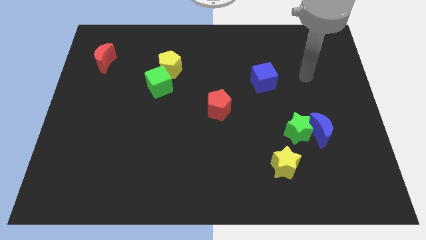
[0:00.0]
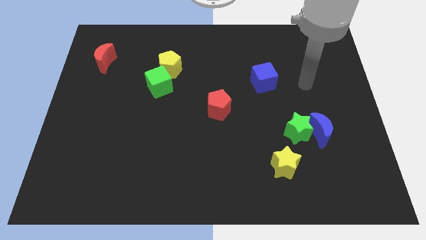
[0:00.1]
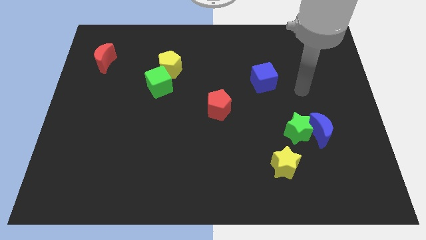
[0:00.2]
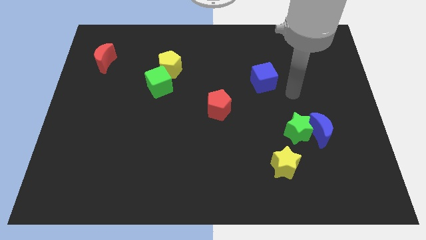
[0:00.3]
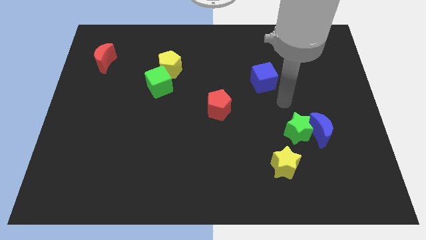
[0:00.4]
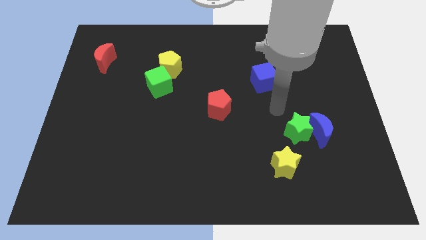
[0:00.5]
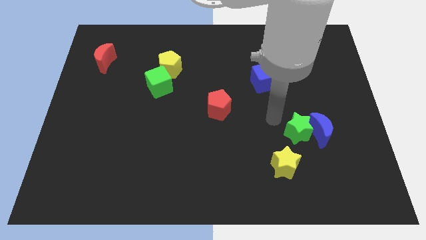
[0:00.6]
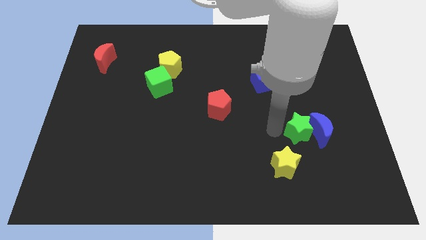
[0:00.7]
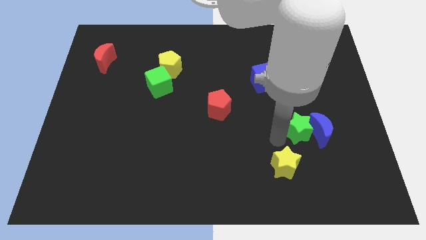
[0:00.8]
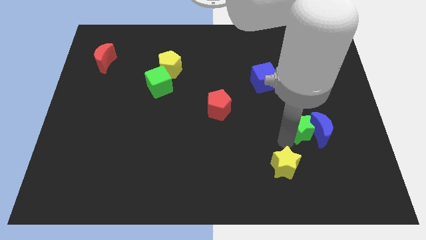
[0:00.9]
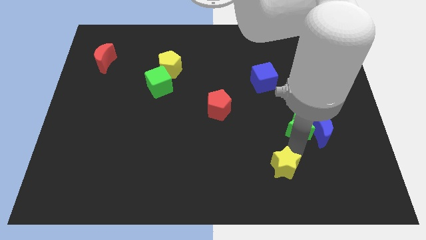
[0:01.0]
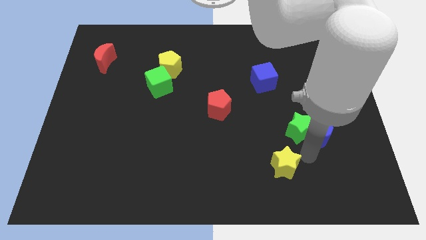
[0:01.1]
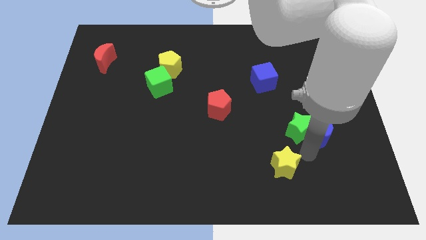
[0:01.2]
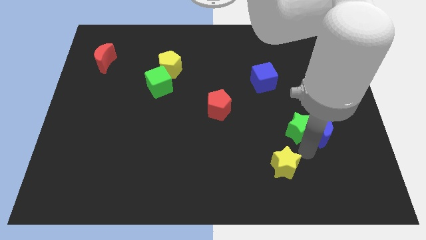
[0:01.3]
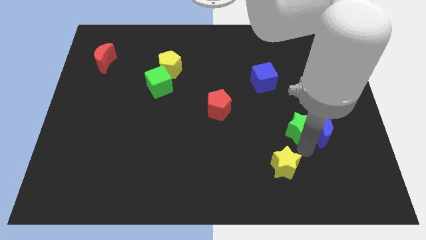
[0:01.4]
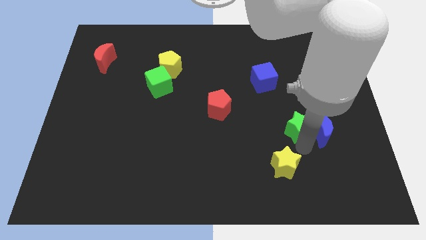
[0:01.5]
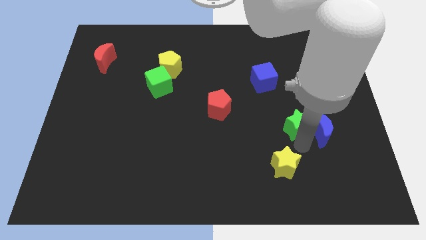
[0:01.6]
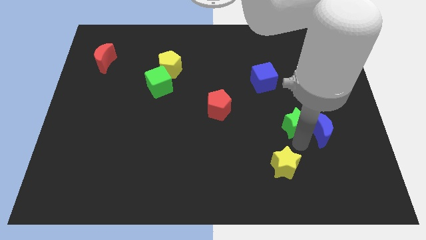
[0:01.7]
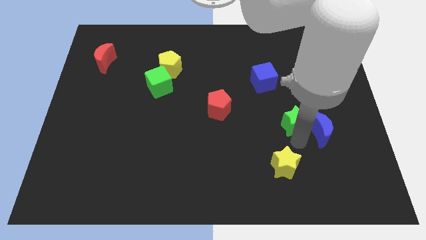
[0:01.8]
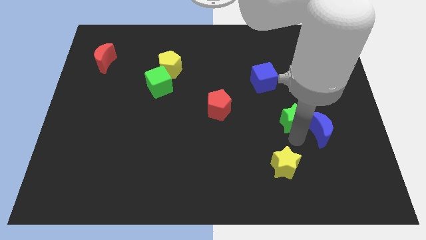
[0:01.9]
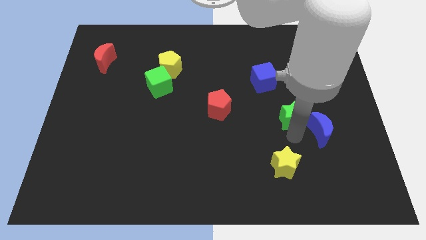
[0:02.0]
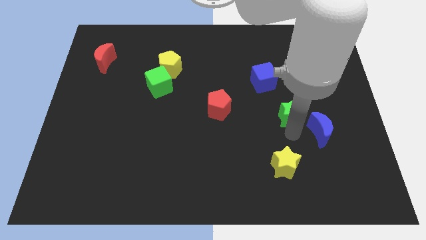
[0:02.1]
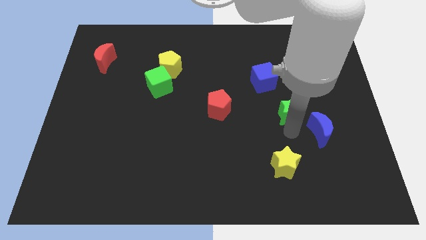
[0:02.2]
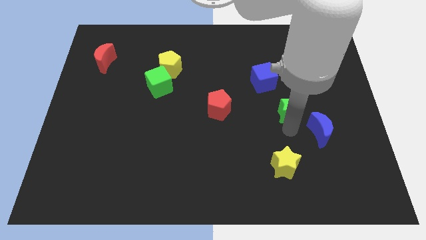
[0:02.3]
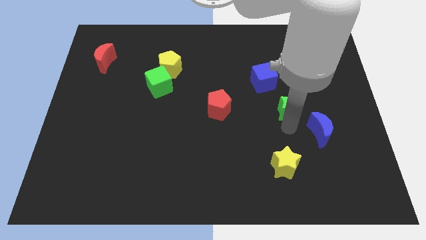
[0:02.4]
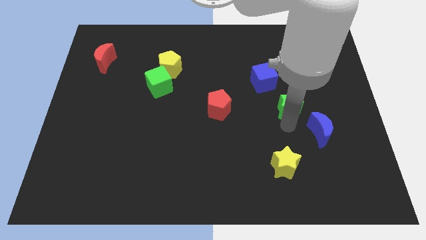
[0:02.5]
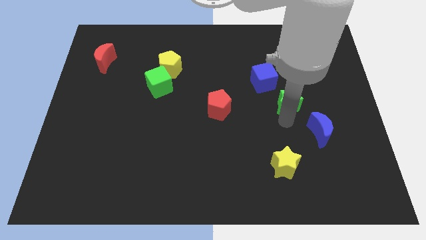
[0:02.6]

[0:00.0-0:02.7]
slide the green star upwards somewhat

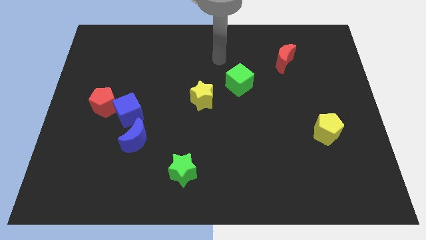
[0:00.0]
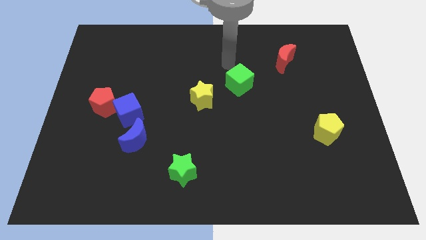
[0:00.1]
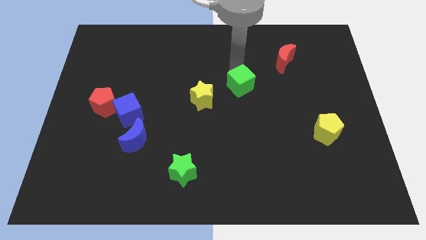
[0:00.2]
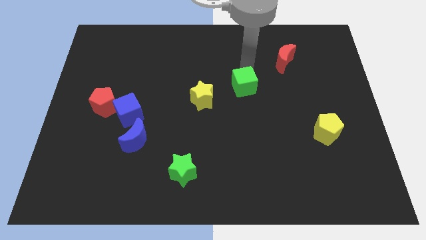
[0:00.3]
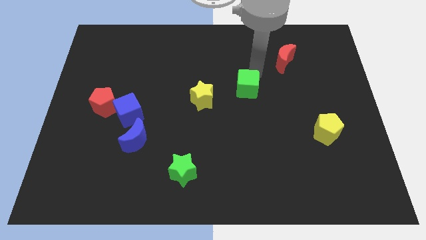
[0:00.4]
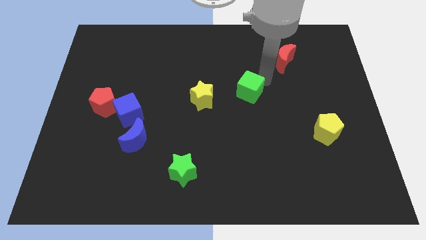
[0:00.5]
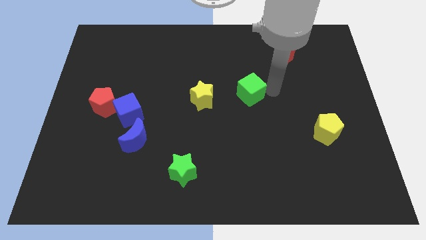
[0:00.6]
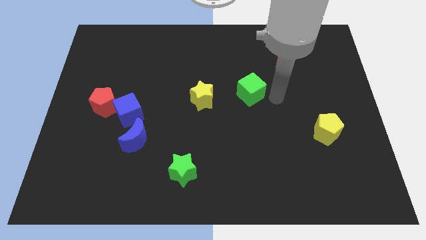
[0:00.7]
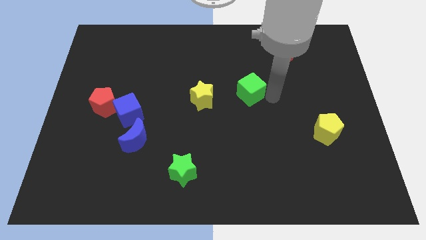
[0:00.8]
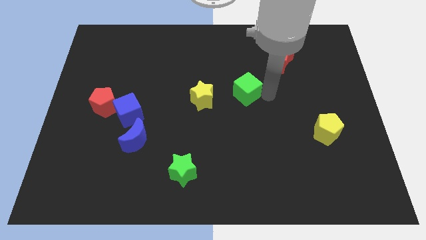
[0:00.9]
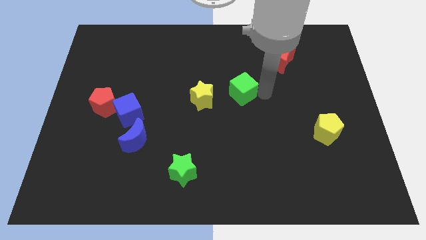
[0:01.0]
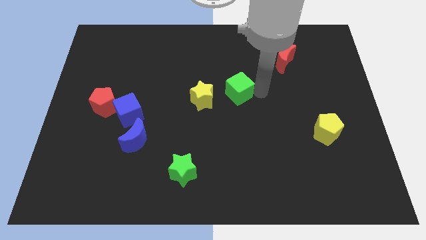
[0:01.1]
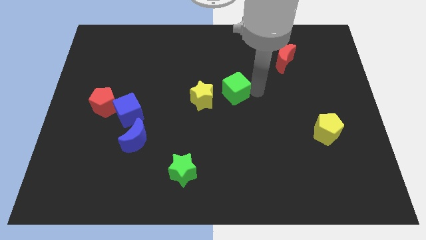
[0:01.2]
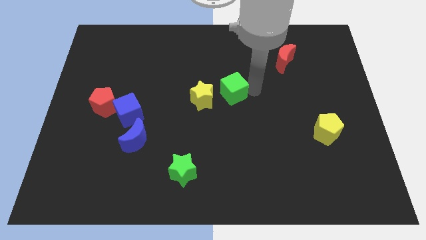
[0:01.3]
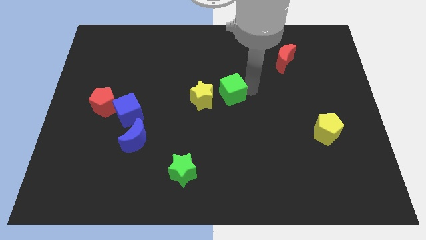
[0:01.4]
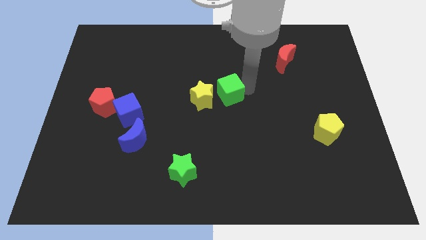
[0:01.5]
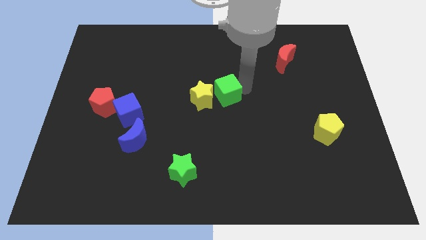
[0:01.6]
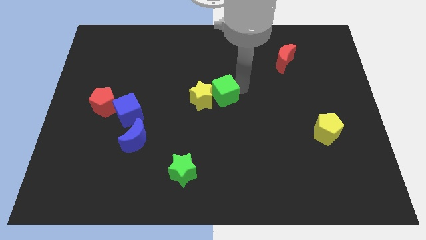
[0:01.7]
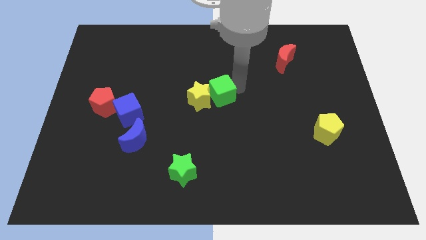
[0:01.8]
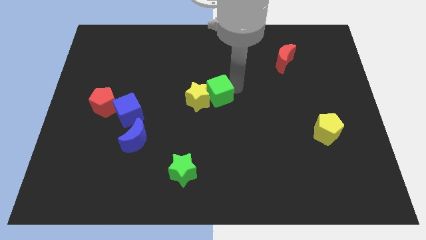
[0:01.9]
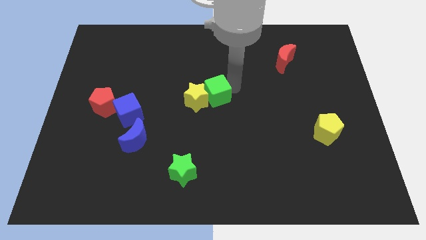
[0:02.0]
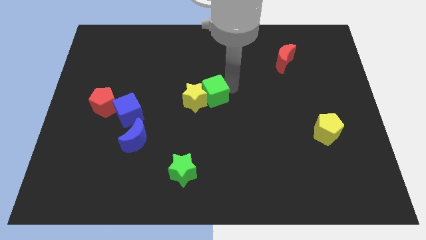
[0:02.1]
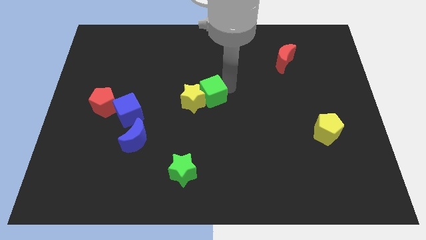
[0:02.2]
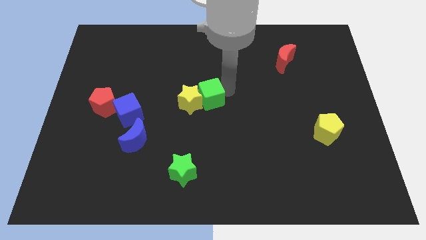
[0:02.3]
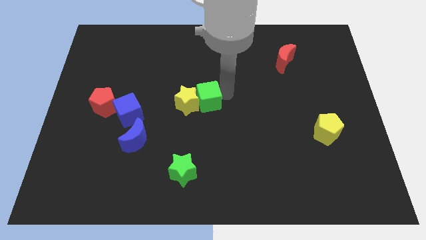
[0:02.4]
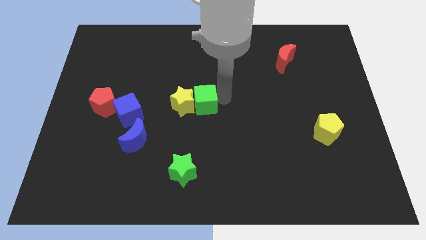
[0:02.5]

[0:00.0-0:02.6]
slide the green cube a bit left

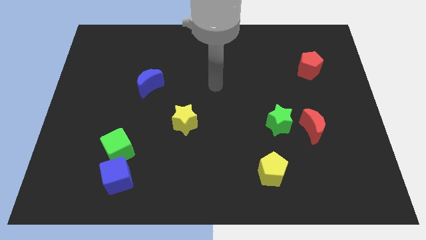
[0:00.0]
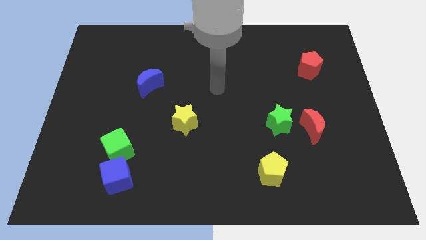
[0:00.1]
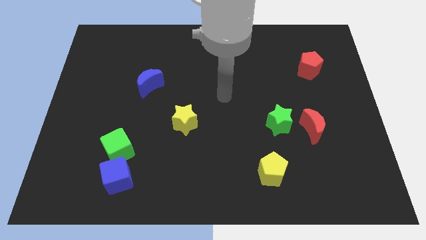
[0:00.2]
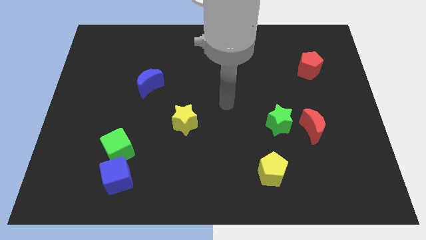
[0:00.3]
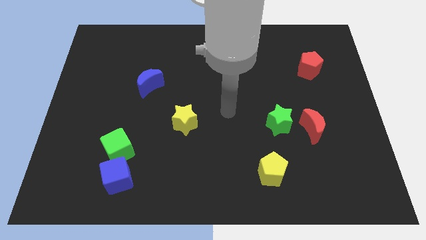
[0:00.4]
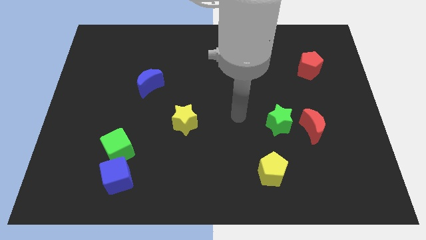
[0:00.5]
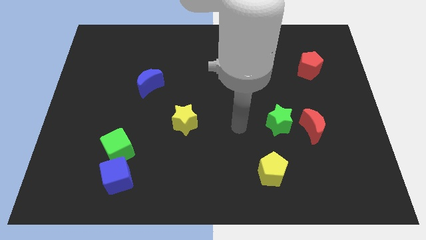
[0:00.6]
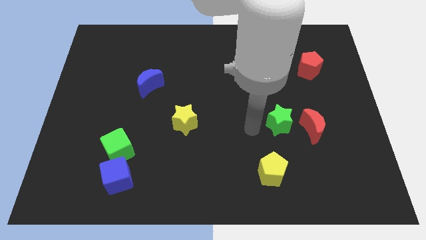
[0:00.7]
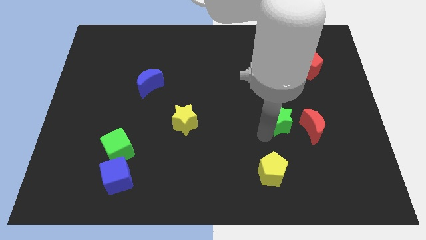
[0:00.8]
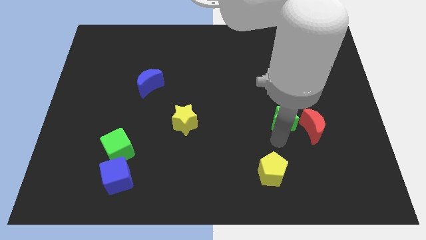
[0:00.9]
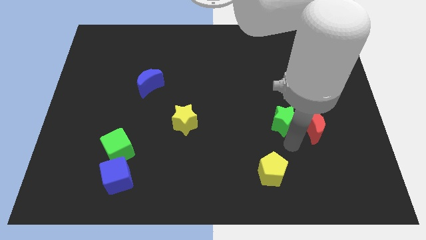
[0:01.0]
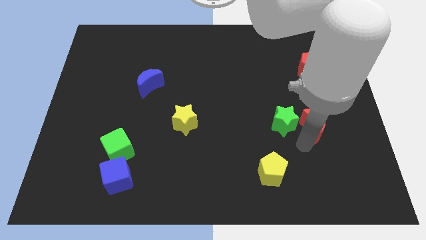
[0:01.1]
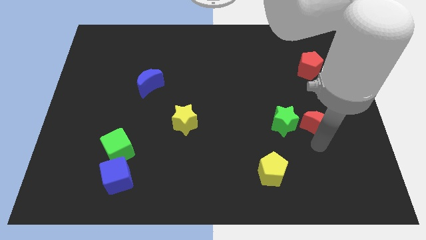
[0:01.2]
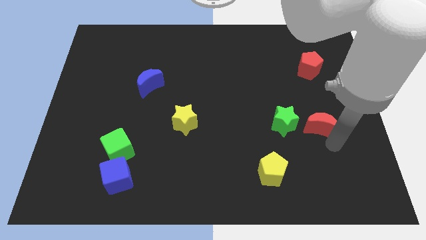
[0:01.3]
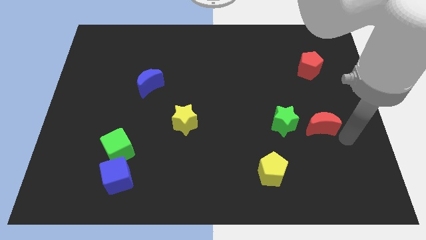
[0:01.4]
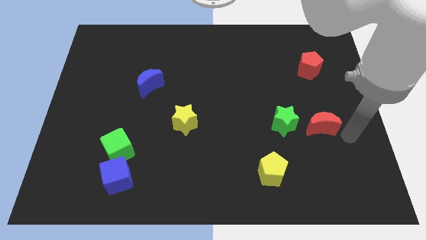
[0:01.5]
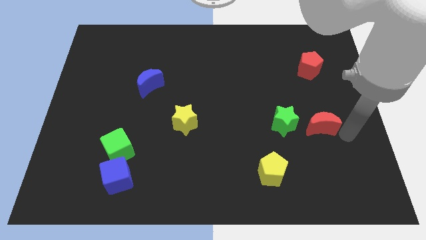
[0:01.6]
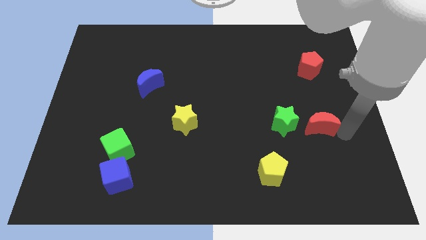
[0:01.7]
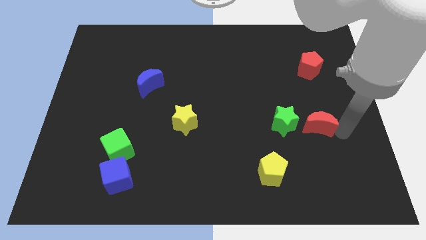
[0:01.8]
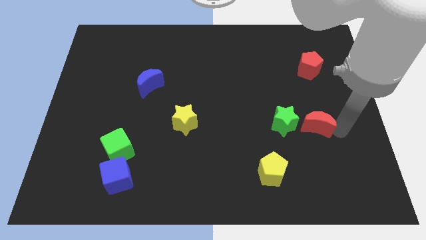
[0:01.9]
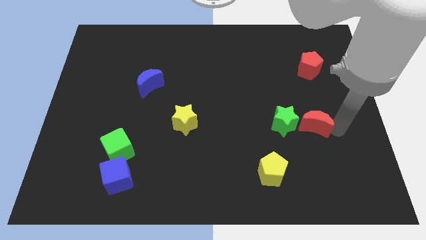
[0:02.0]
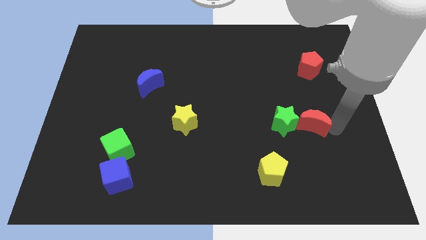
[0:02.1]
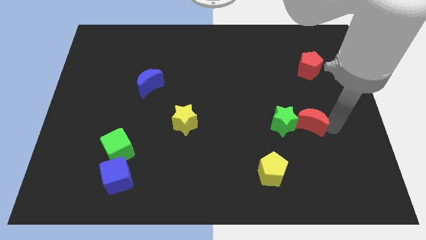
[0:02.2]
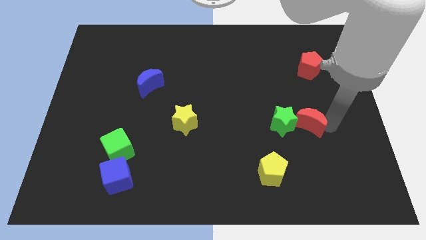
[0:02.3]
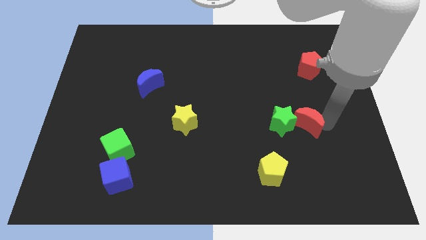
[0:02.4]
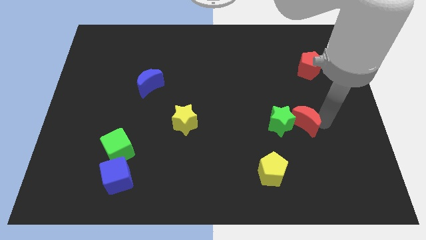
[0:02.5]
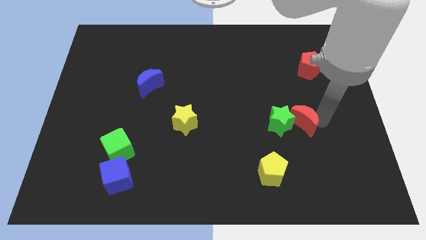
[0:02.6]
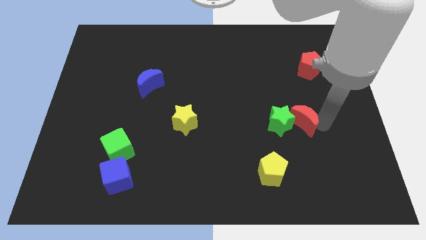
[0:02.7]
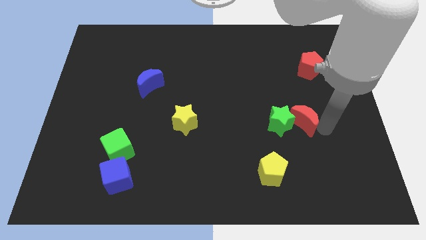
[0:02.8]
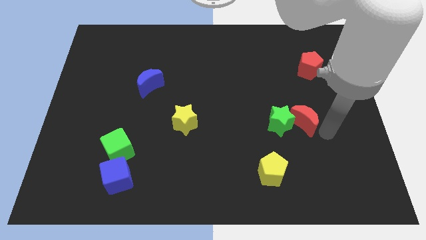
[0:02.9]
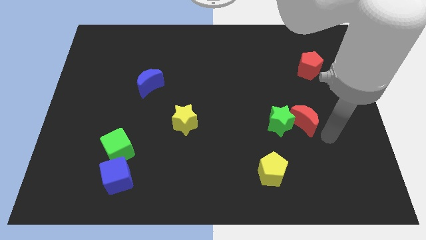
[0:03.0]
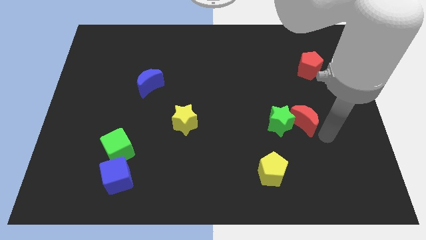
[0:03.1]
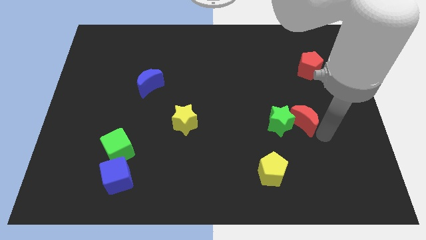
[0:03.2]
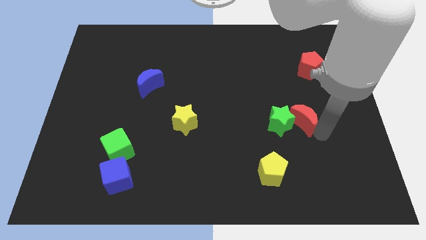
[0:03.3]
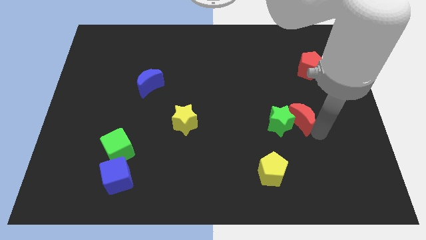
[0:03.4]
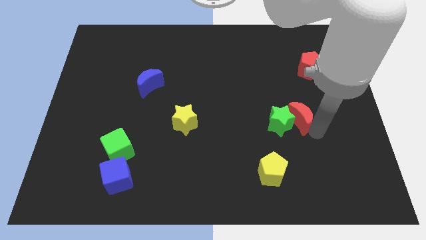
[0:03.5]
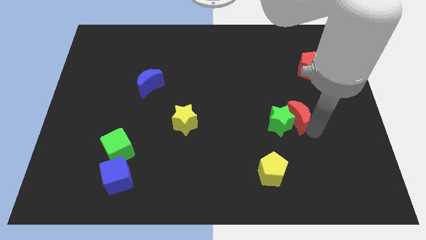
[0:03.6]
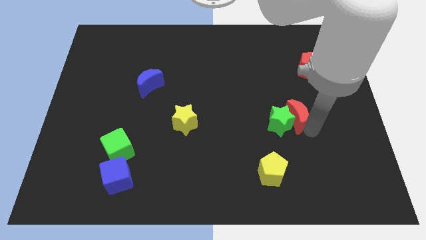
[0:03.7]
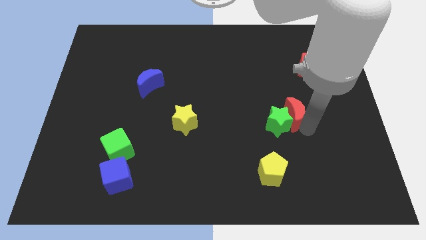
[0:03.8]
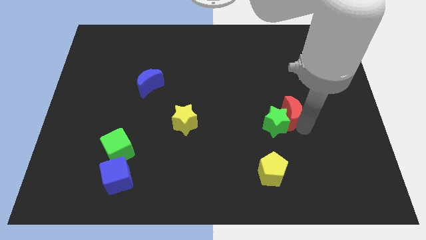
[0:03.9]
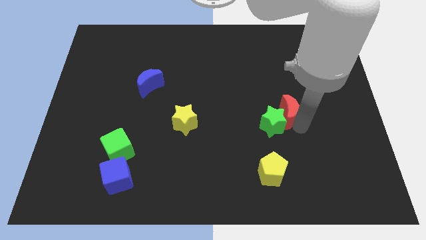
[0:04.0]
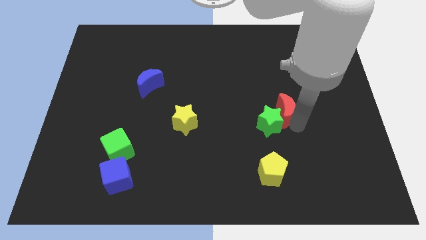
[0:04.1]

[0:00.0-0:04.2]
push the red moon up and to the left diagonally a little bit
